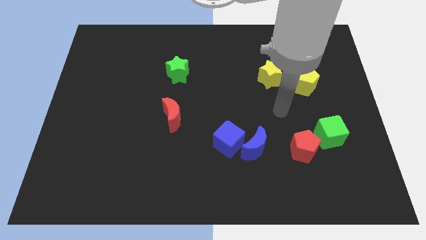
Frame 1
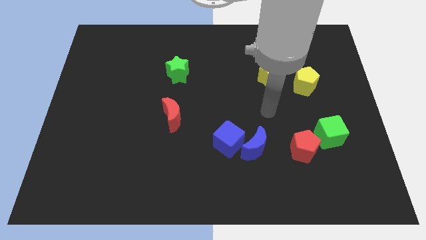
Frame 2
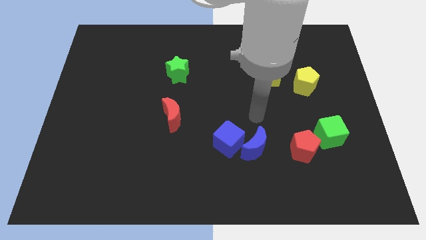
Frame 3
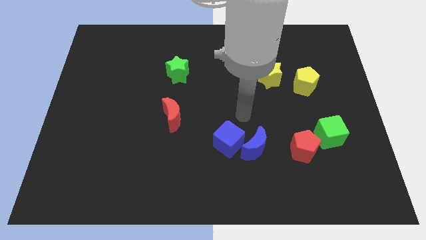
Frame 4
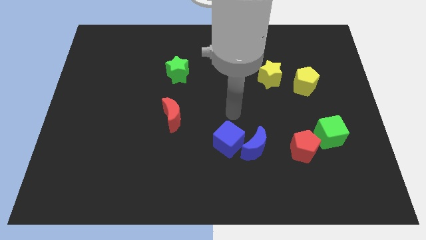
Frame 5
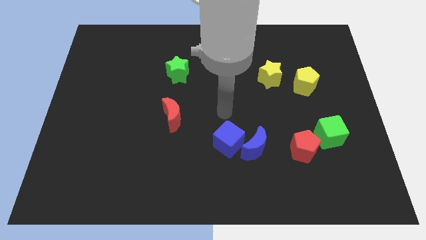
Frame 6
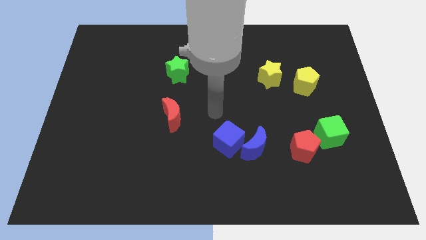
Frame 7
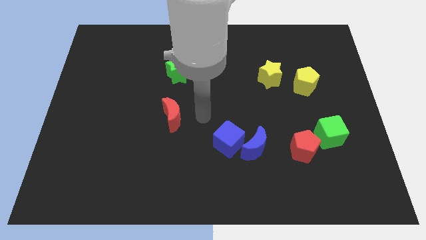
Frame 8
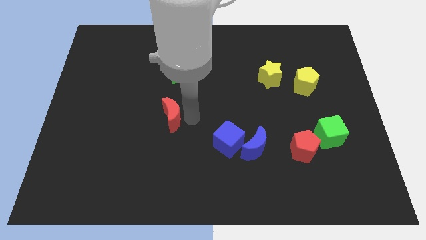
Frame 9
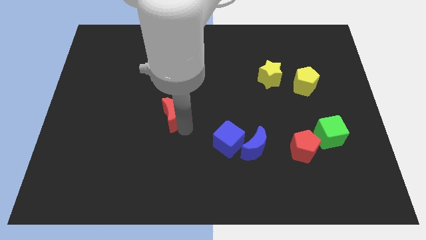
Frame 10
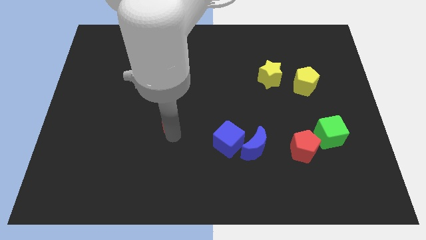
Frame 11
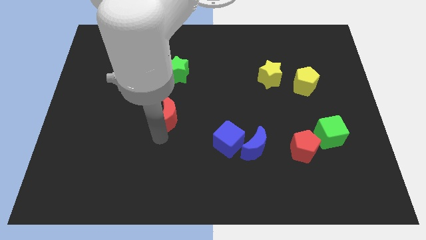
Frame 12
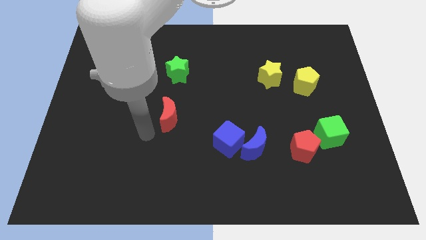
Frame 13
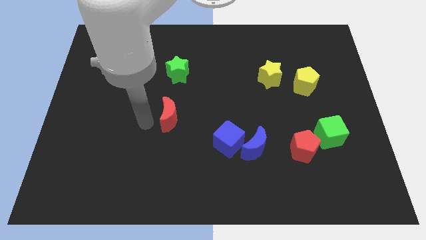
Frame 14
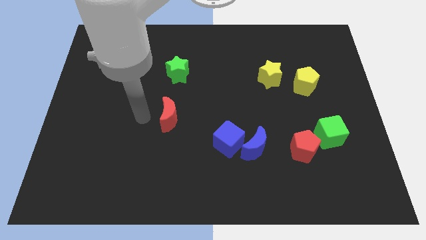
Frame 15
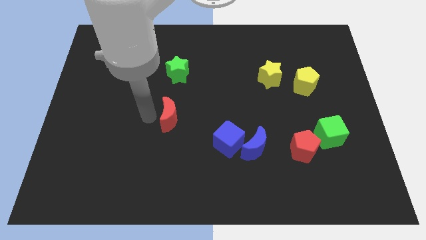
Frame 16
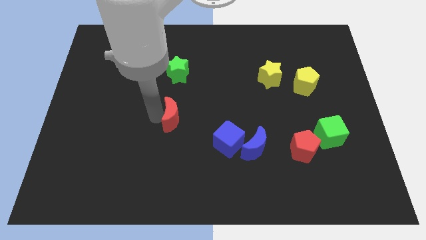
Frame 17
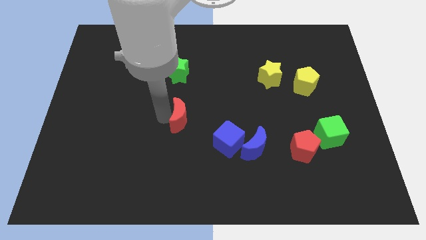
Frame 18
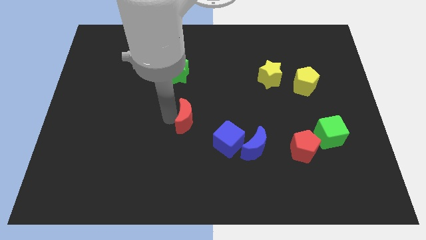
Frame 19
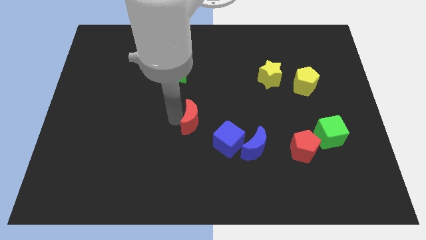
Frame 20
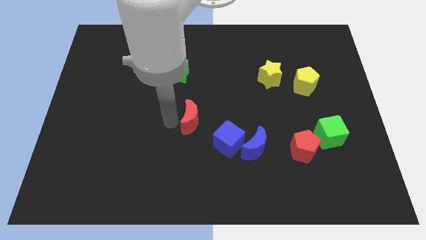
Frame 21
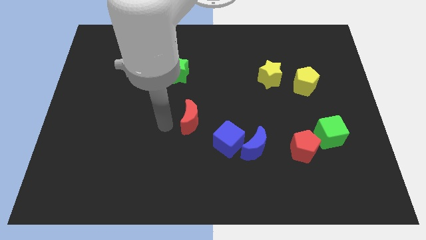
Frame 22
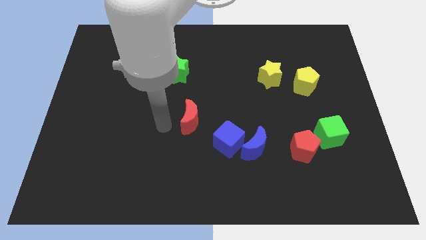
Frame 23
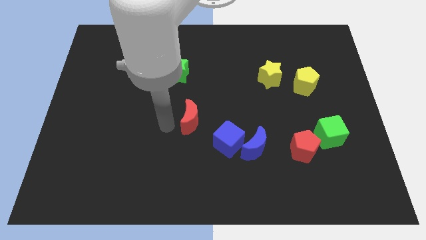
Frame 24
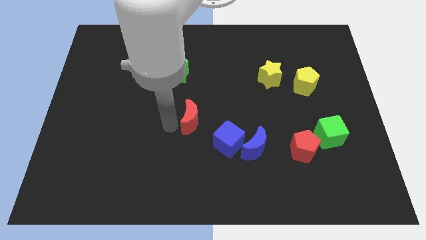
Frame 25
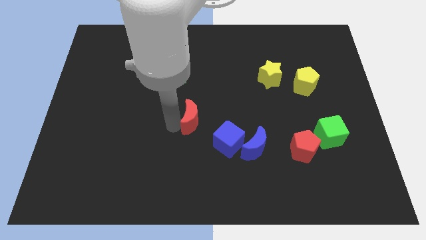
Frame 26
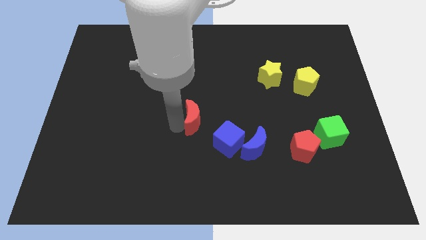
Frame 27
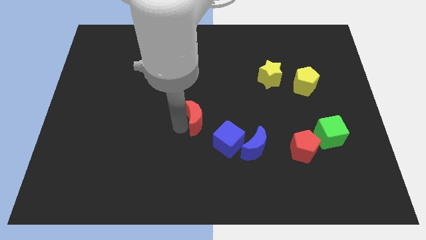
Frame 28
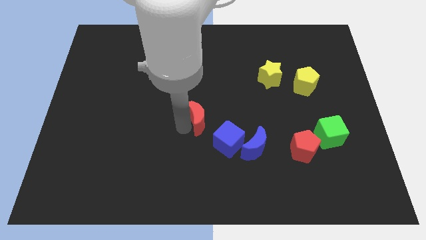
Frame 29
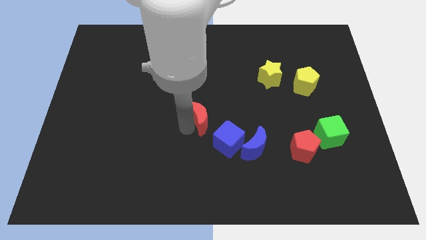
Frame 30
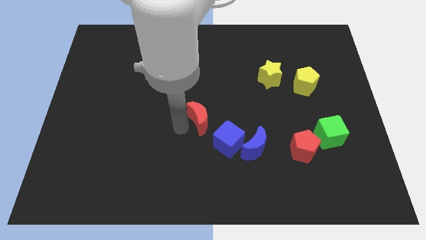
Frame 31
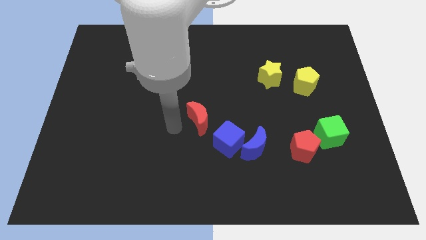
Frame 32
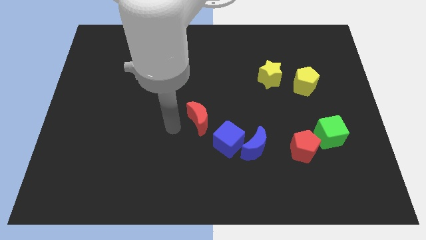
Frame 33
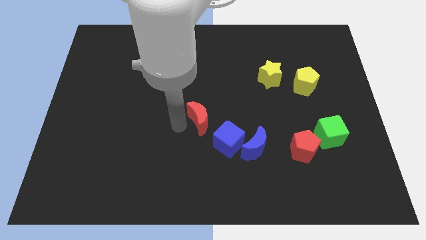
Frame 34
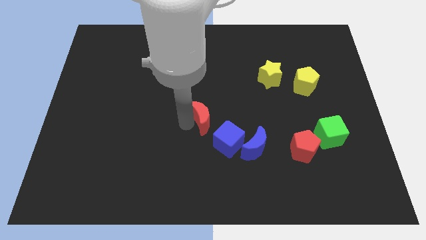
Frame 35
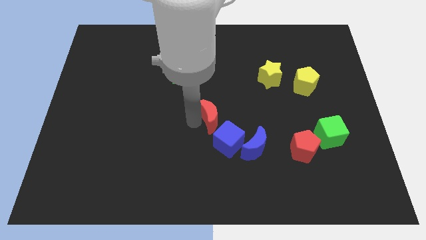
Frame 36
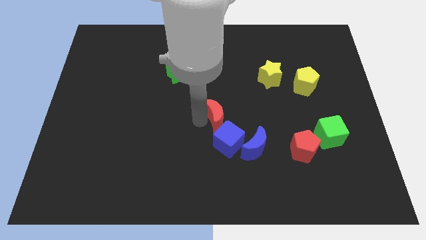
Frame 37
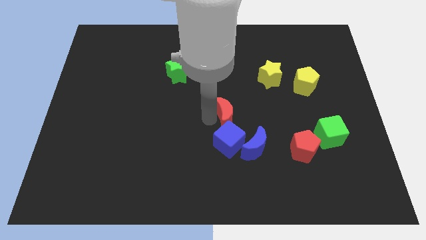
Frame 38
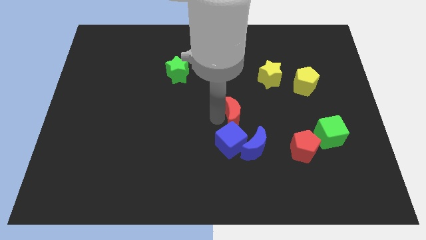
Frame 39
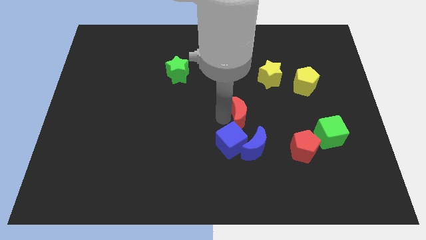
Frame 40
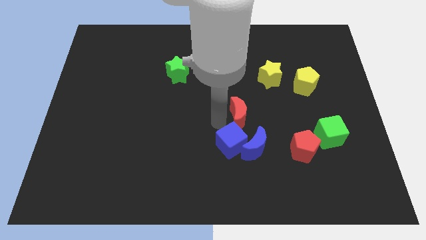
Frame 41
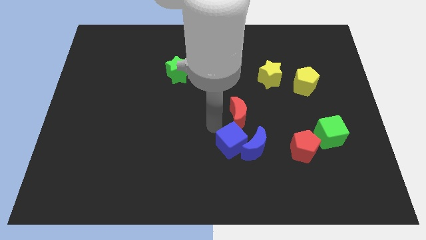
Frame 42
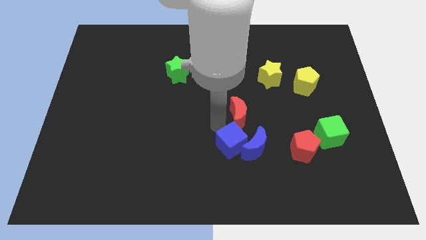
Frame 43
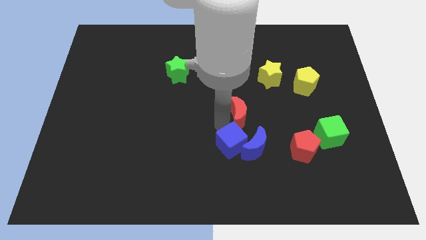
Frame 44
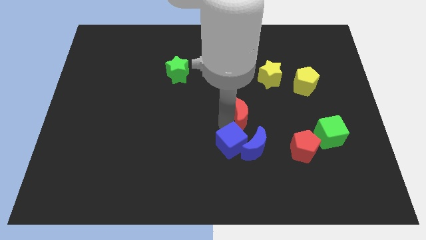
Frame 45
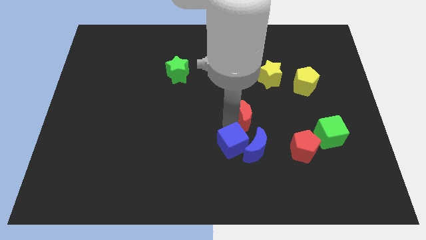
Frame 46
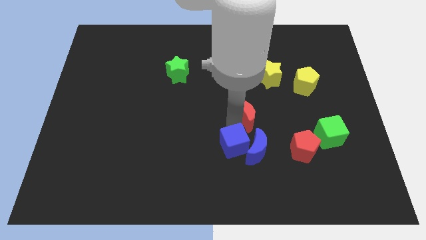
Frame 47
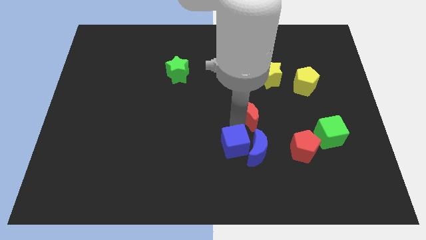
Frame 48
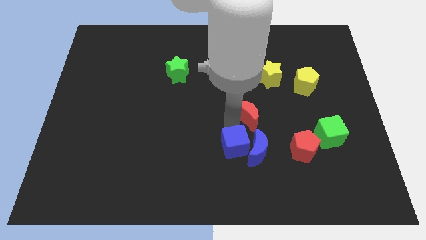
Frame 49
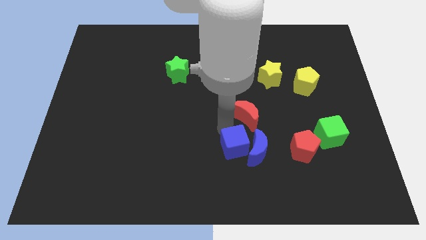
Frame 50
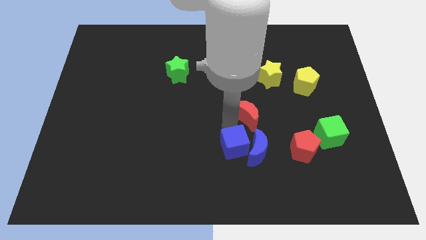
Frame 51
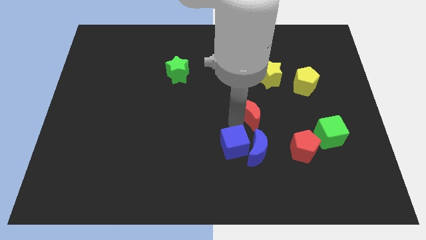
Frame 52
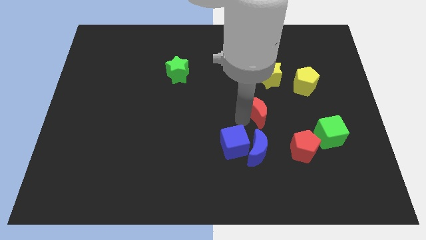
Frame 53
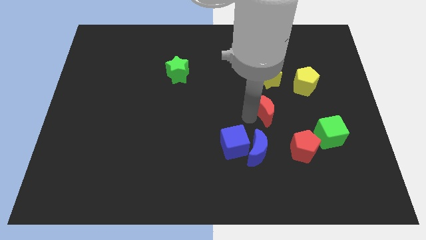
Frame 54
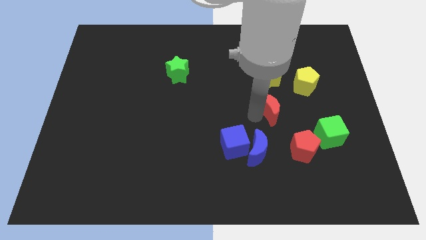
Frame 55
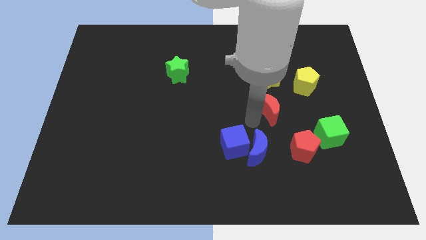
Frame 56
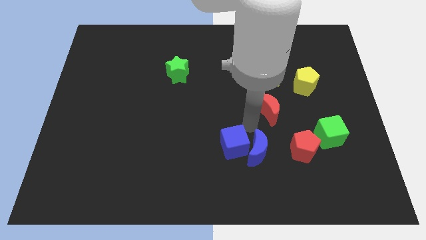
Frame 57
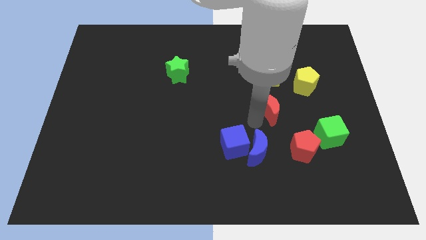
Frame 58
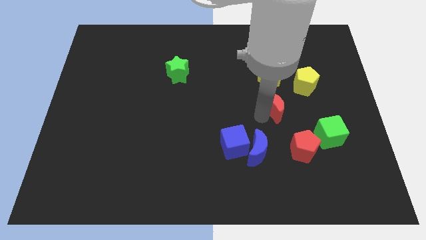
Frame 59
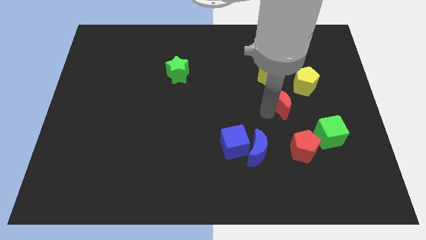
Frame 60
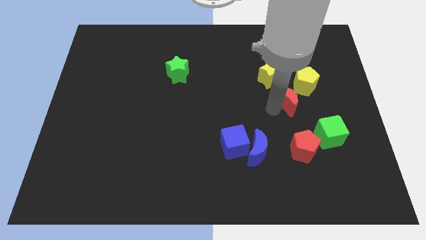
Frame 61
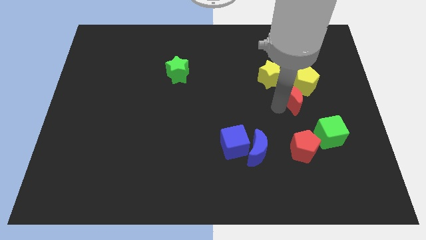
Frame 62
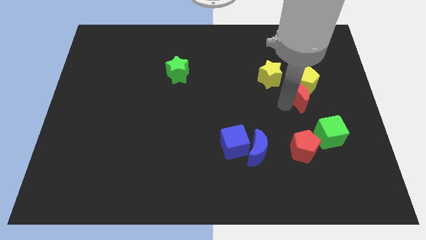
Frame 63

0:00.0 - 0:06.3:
move the red moon towards the yellow pentagon

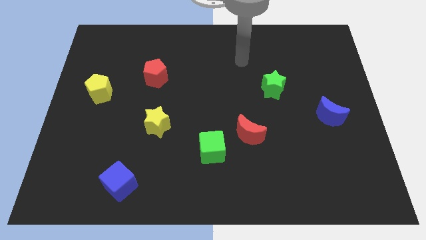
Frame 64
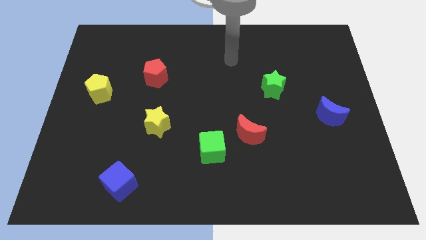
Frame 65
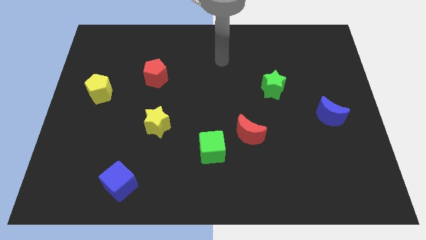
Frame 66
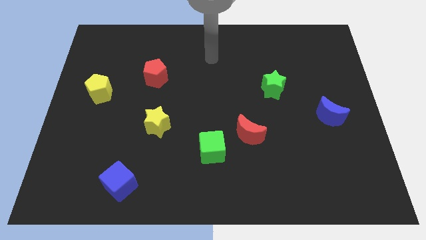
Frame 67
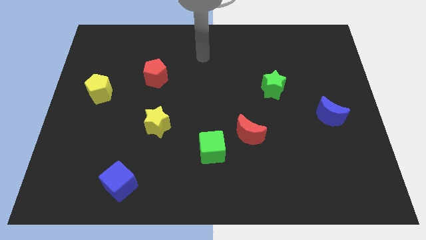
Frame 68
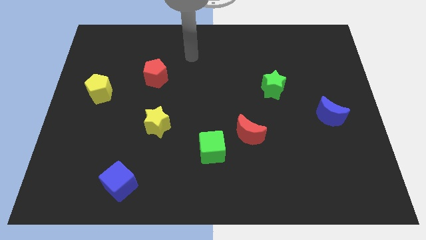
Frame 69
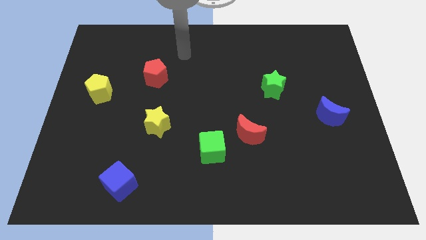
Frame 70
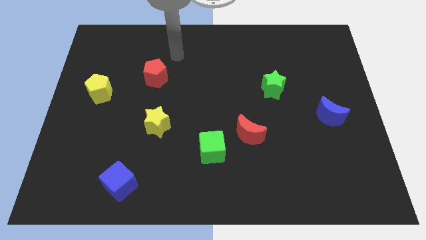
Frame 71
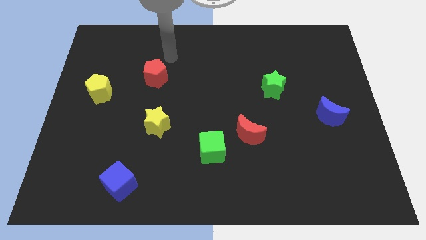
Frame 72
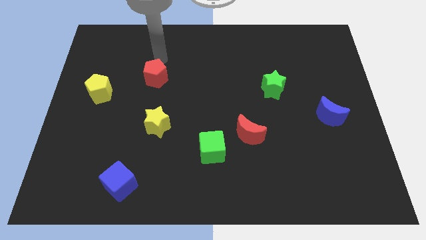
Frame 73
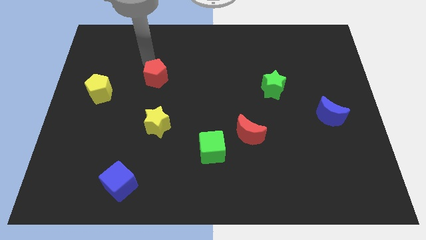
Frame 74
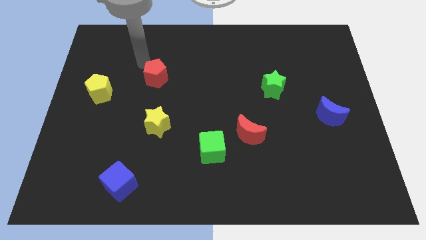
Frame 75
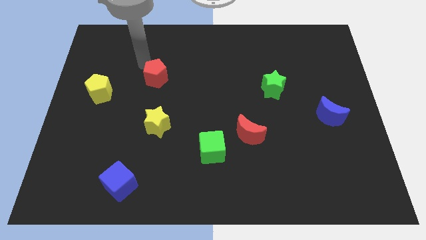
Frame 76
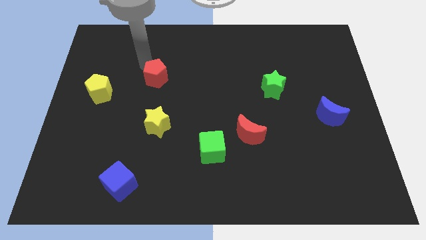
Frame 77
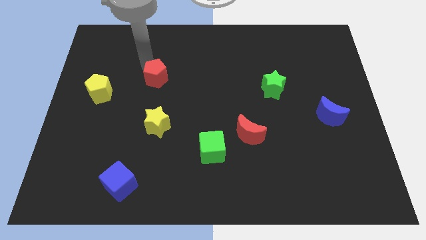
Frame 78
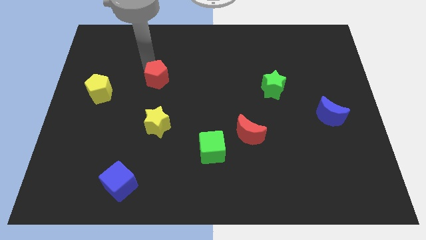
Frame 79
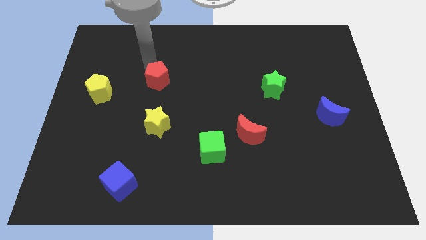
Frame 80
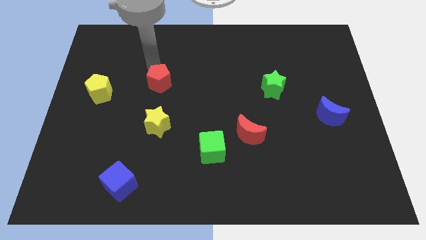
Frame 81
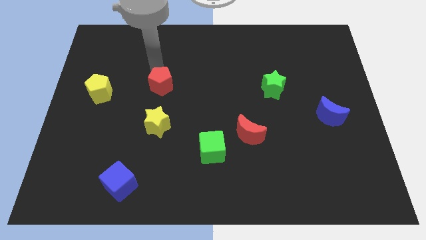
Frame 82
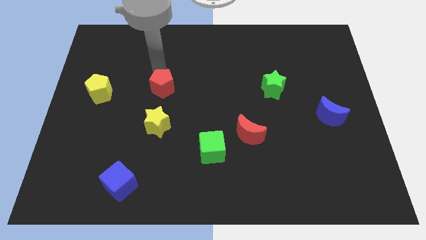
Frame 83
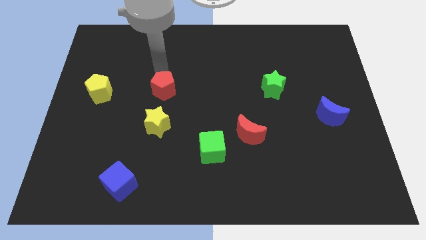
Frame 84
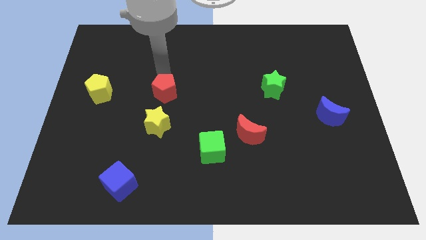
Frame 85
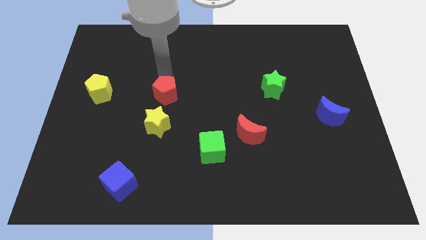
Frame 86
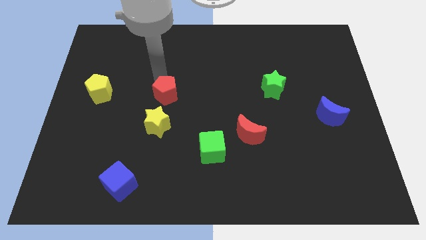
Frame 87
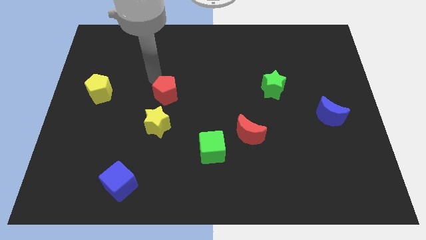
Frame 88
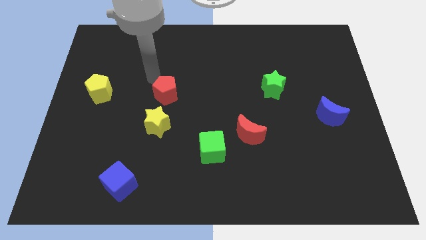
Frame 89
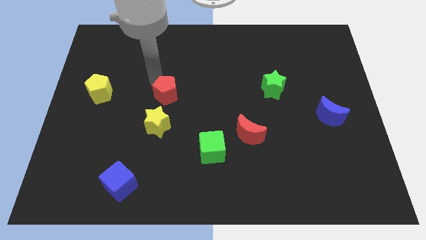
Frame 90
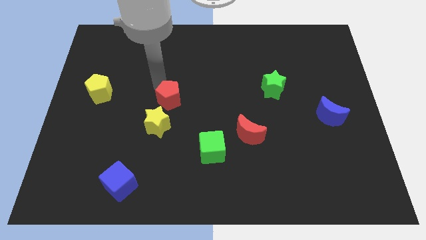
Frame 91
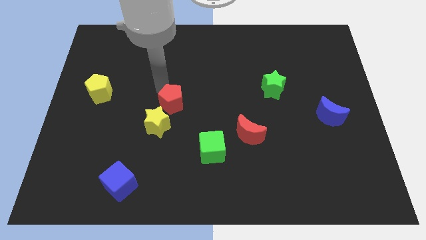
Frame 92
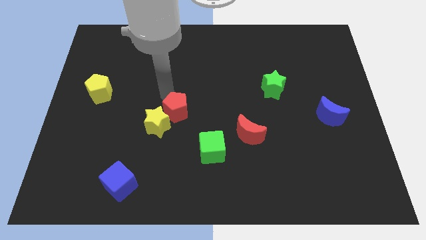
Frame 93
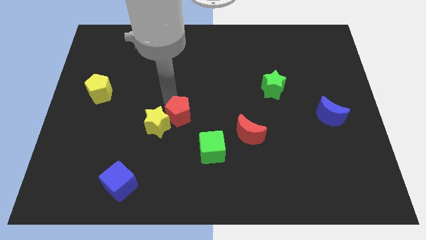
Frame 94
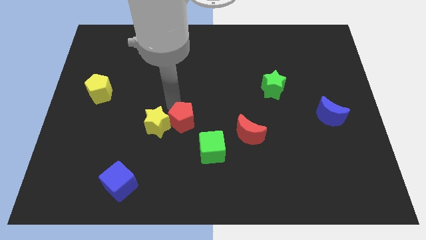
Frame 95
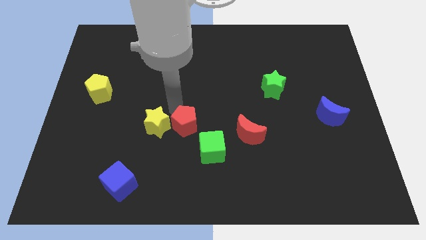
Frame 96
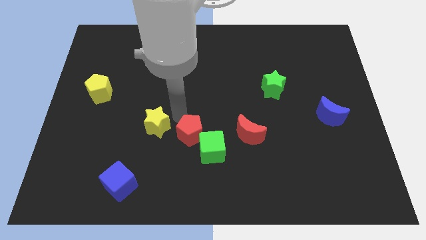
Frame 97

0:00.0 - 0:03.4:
push the red pentagon to the green cube
